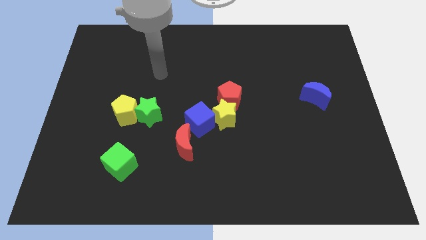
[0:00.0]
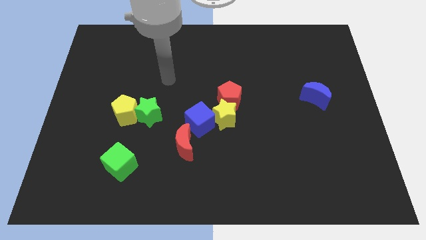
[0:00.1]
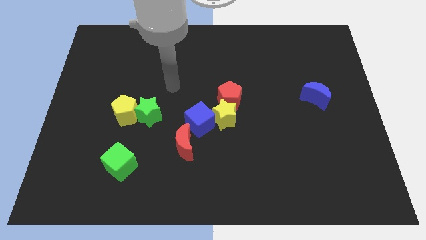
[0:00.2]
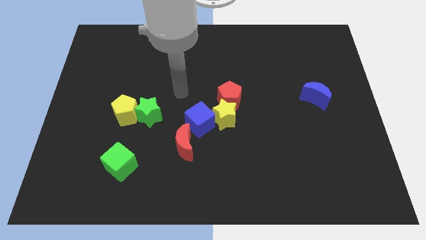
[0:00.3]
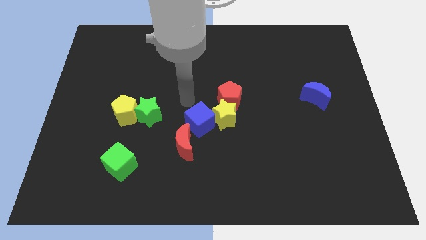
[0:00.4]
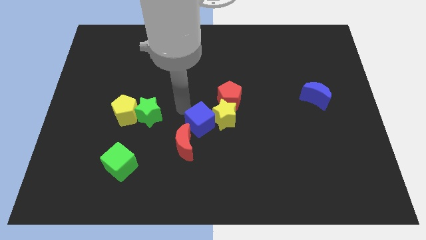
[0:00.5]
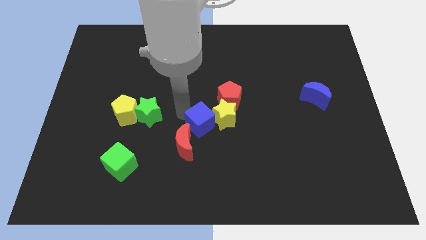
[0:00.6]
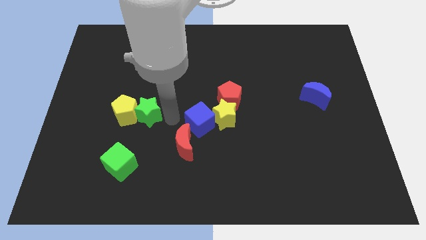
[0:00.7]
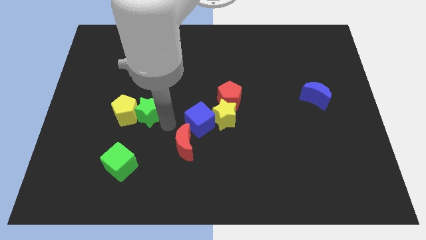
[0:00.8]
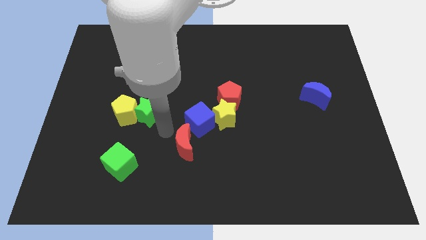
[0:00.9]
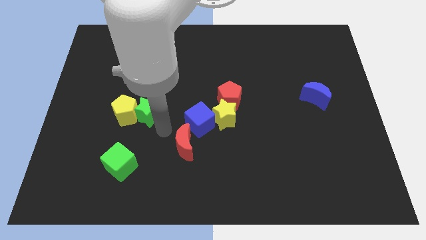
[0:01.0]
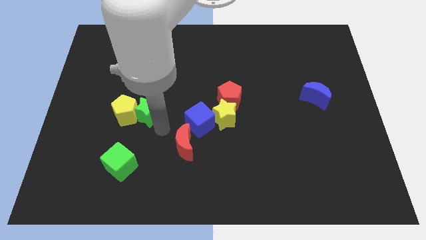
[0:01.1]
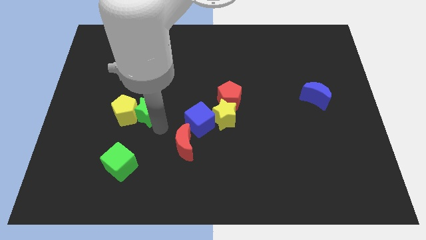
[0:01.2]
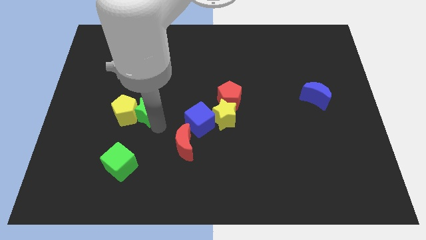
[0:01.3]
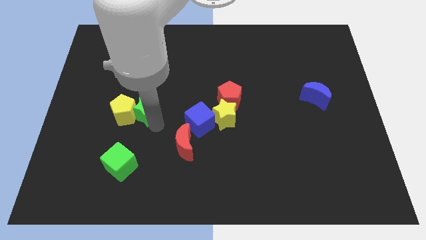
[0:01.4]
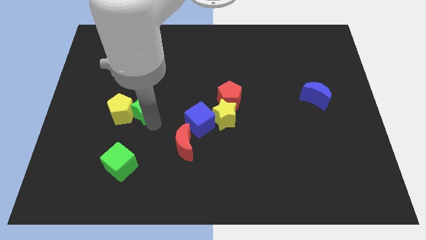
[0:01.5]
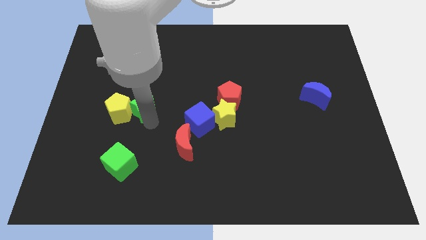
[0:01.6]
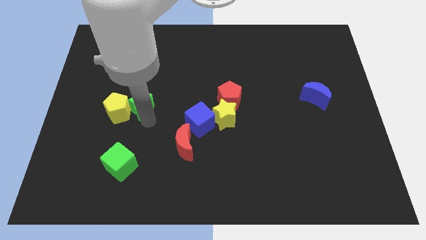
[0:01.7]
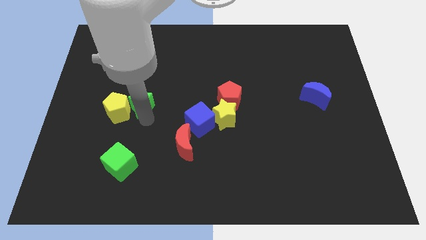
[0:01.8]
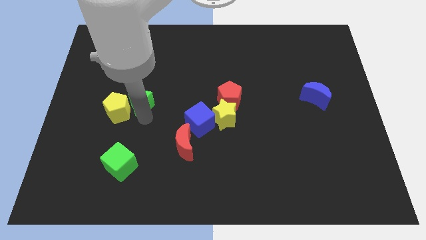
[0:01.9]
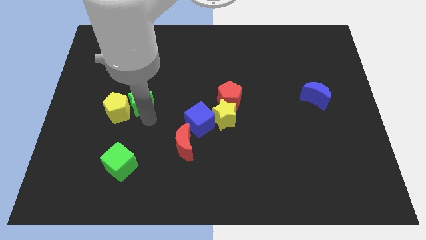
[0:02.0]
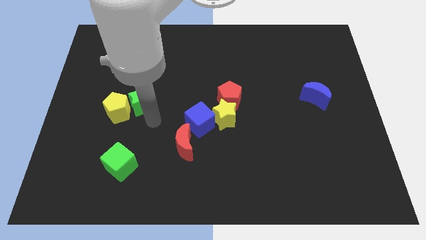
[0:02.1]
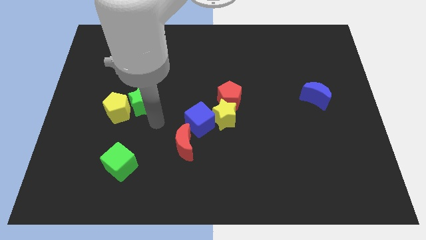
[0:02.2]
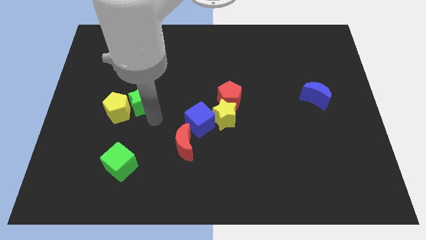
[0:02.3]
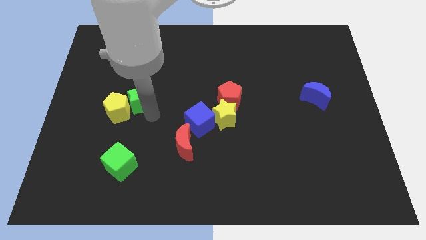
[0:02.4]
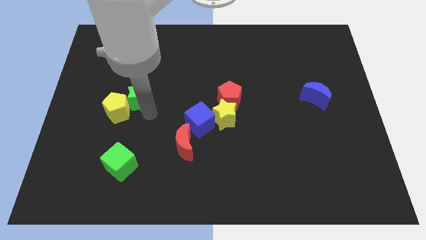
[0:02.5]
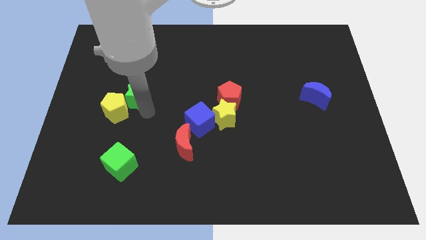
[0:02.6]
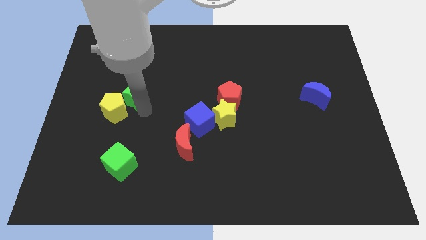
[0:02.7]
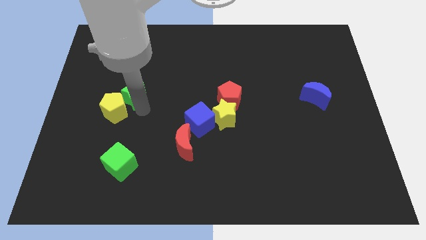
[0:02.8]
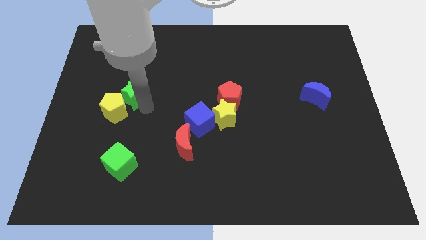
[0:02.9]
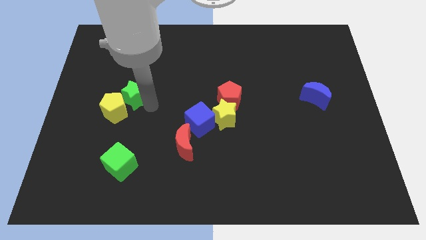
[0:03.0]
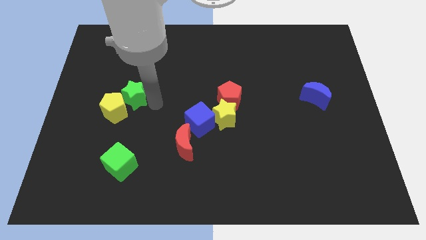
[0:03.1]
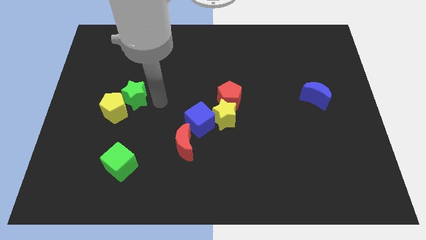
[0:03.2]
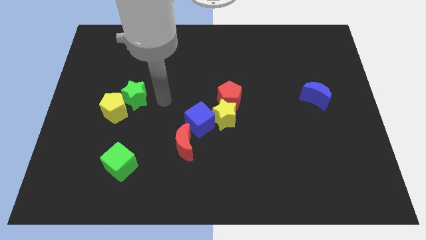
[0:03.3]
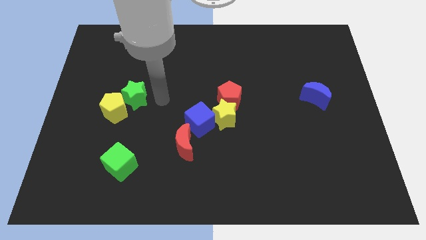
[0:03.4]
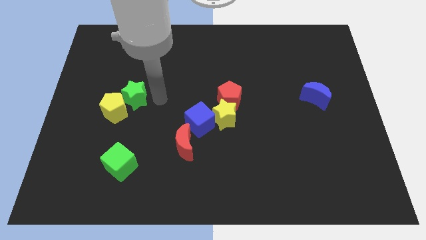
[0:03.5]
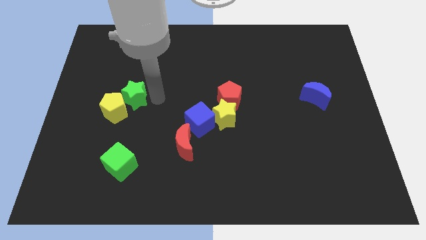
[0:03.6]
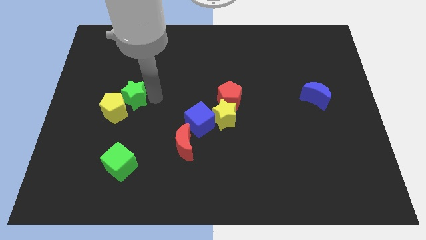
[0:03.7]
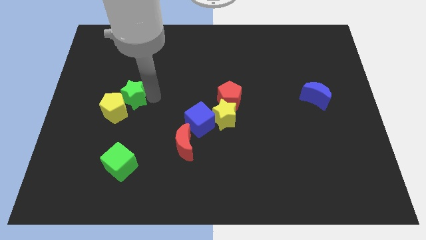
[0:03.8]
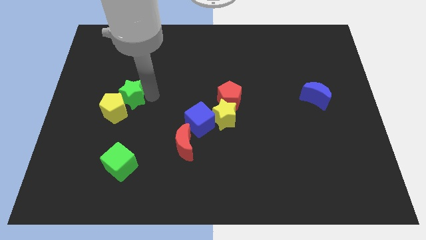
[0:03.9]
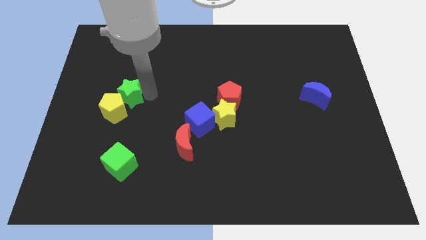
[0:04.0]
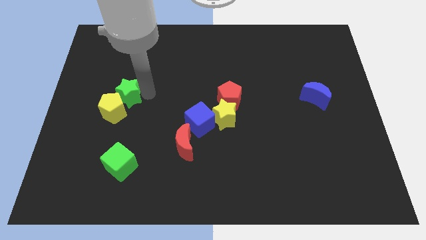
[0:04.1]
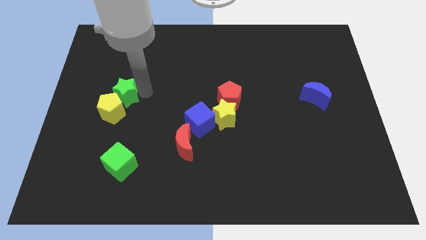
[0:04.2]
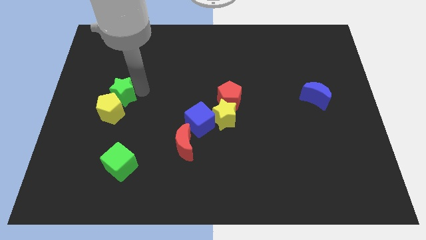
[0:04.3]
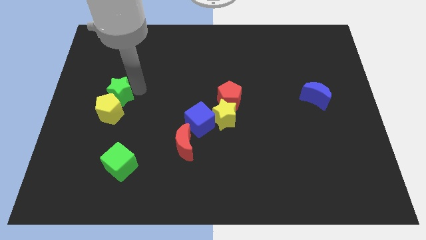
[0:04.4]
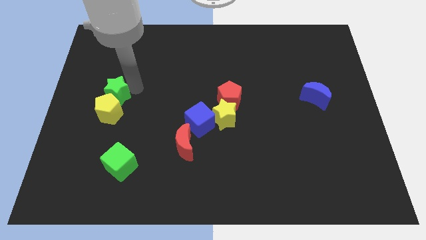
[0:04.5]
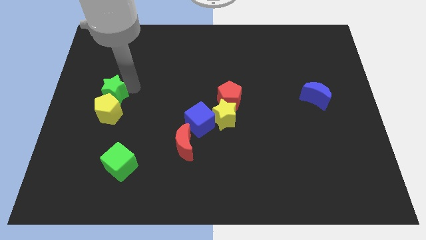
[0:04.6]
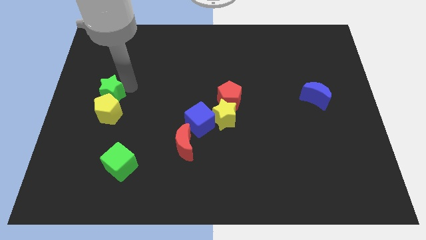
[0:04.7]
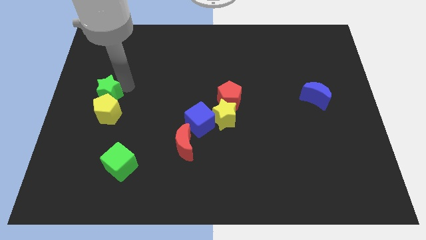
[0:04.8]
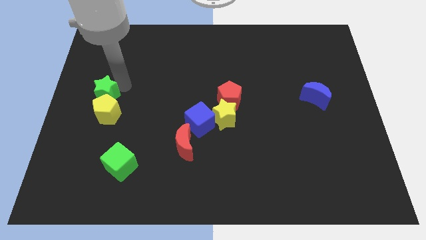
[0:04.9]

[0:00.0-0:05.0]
put the green star to the center left

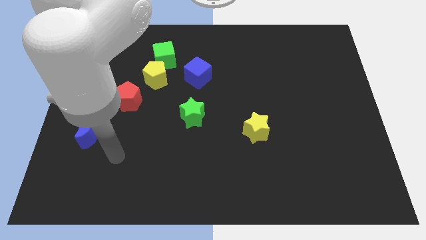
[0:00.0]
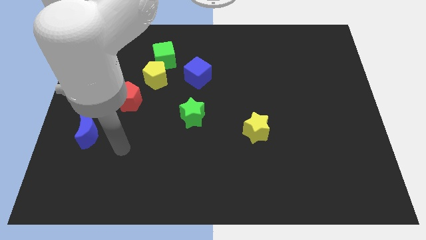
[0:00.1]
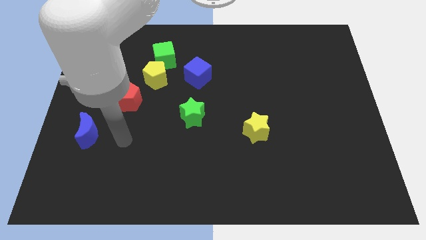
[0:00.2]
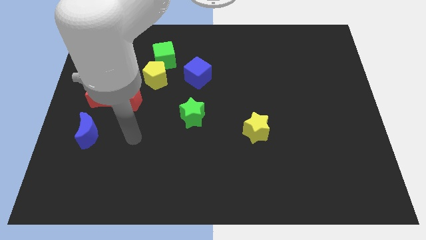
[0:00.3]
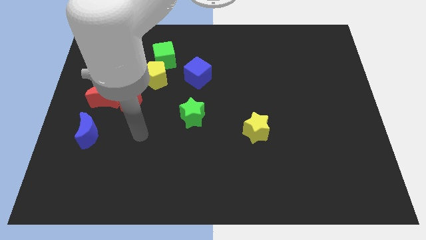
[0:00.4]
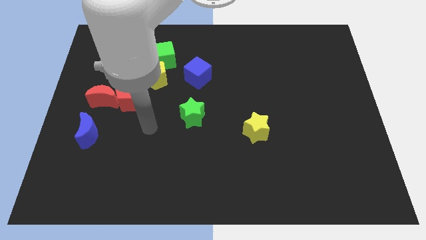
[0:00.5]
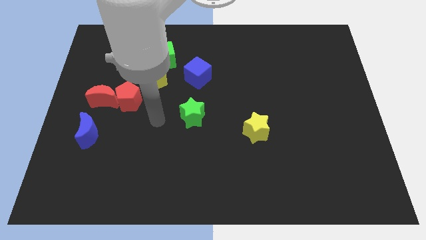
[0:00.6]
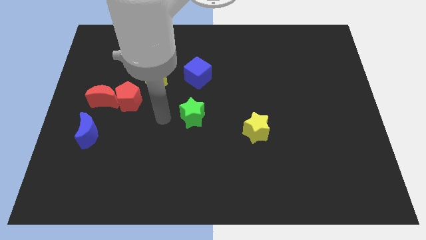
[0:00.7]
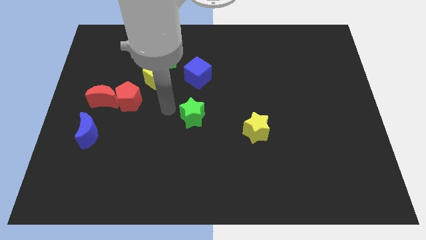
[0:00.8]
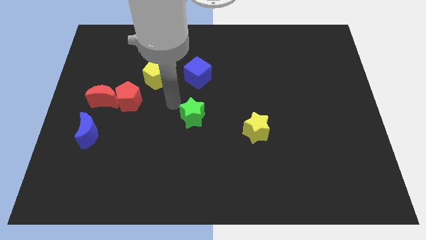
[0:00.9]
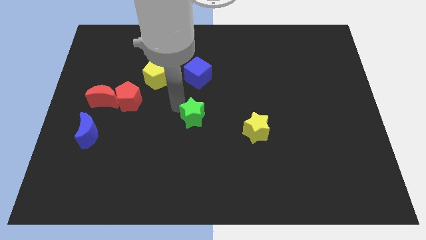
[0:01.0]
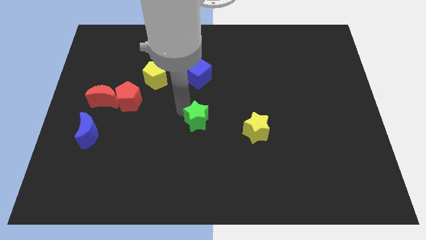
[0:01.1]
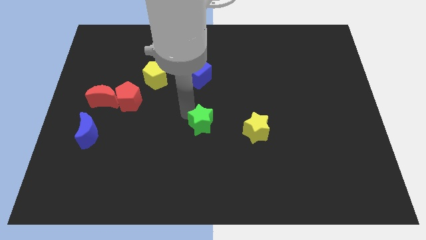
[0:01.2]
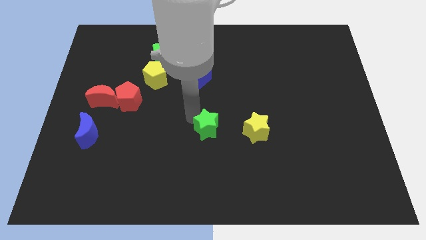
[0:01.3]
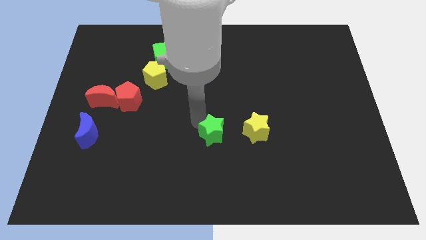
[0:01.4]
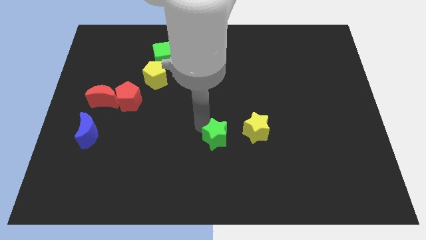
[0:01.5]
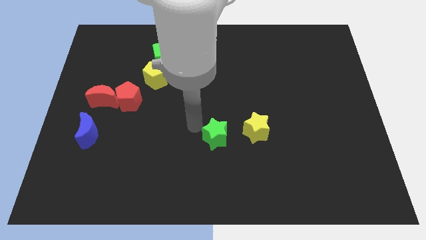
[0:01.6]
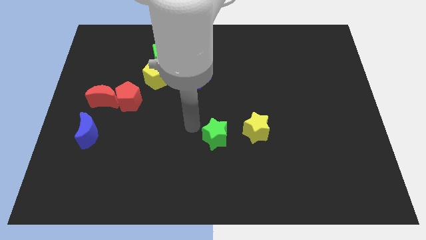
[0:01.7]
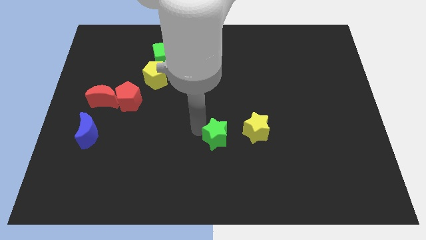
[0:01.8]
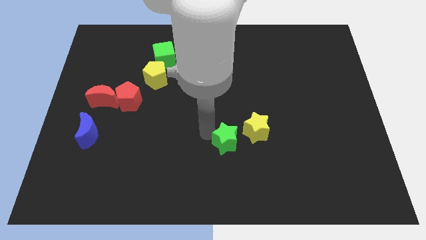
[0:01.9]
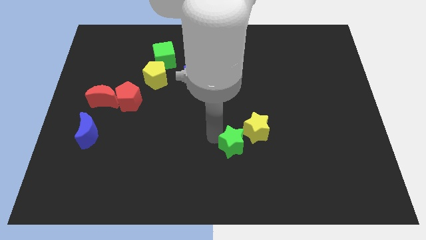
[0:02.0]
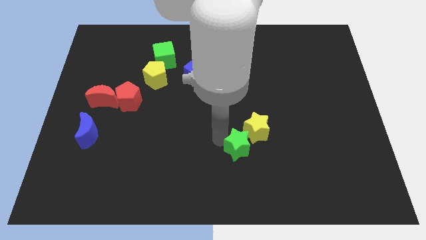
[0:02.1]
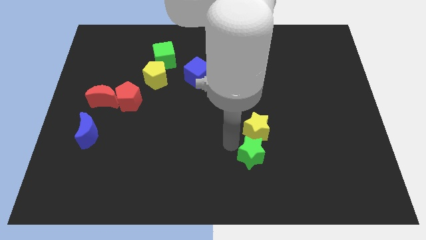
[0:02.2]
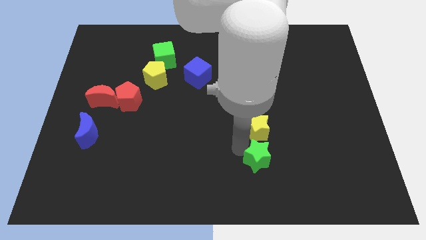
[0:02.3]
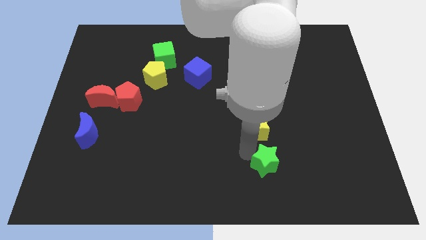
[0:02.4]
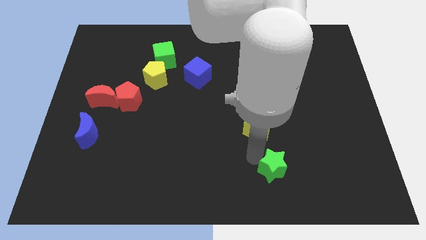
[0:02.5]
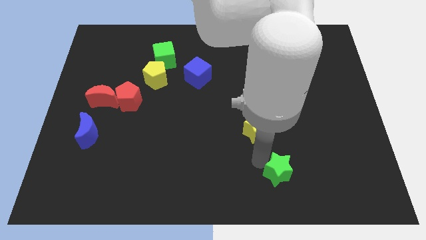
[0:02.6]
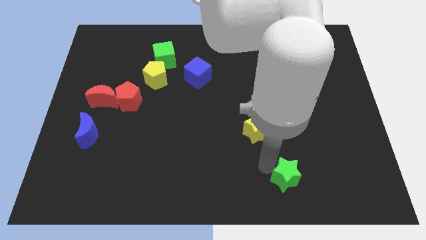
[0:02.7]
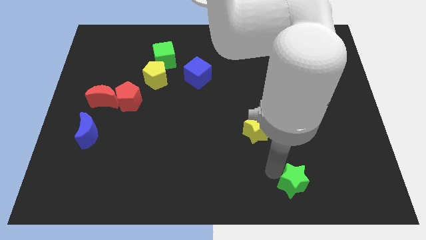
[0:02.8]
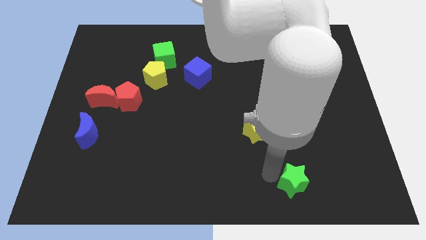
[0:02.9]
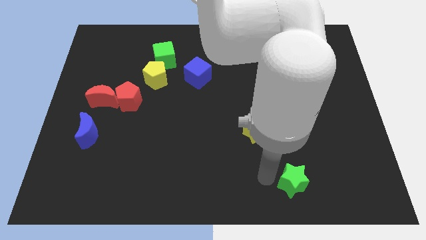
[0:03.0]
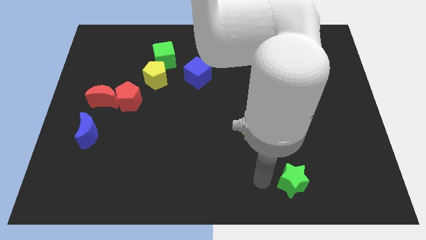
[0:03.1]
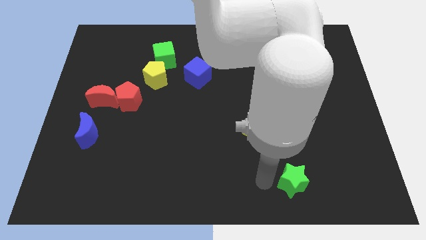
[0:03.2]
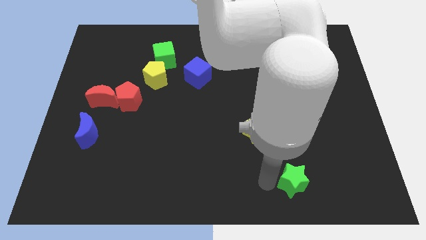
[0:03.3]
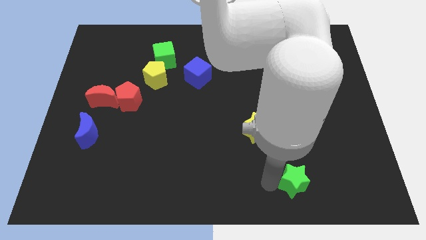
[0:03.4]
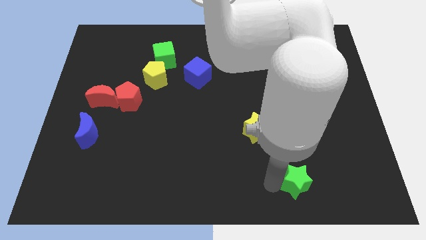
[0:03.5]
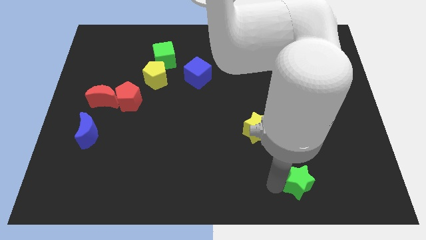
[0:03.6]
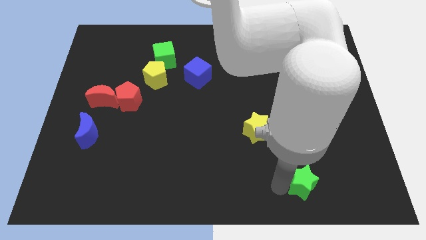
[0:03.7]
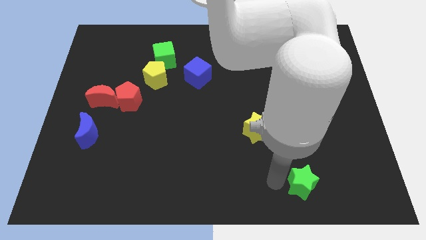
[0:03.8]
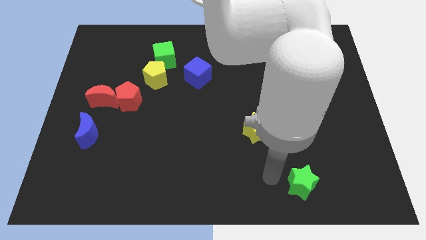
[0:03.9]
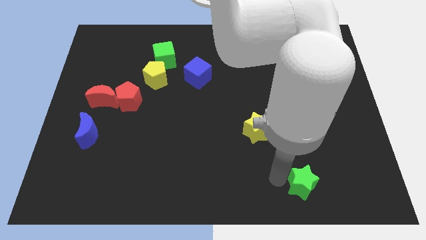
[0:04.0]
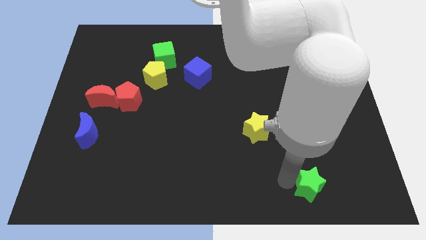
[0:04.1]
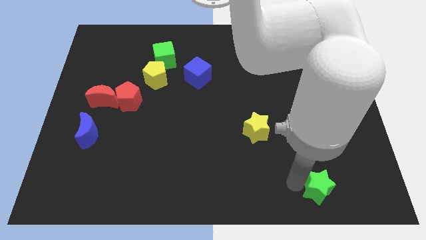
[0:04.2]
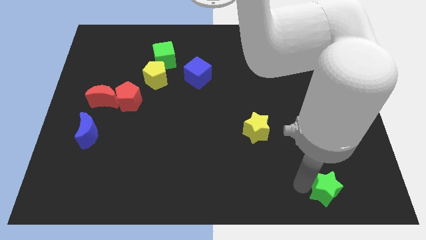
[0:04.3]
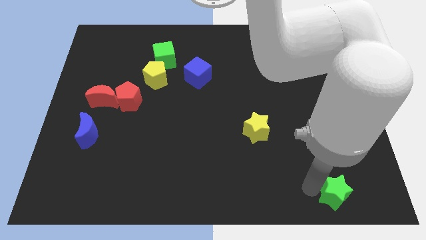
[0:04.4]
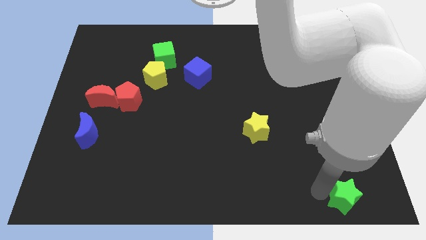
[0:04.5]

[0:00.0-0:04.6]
push the green star to the lower right corner
